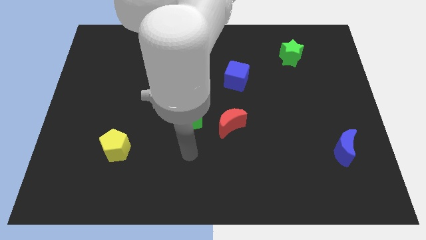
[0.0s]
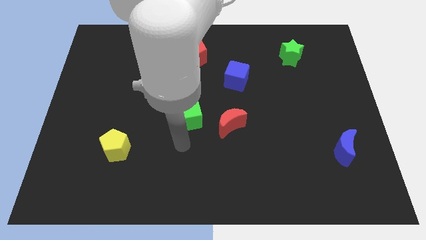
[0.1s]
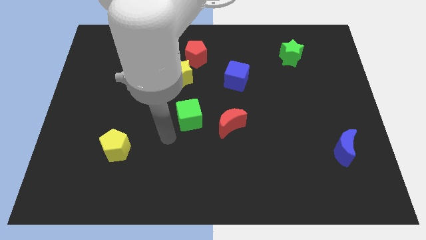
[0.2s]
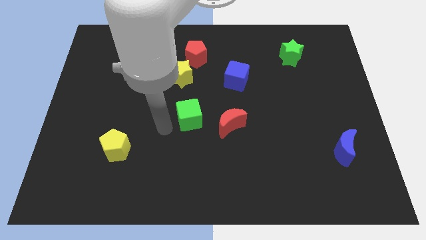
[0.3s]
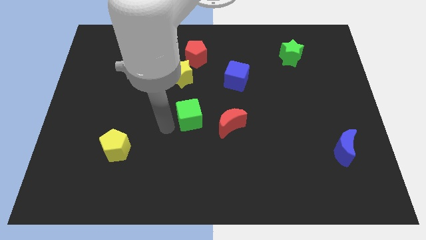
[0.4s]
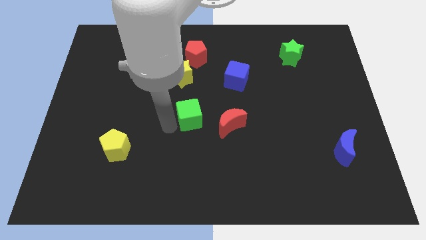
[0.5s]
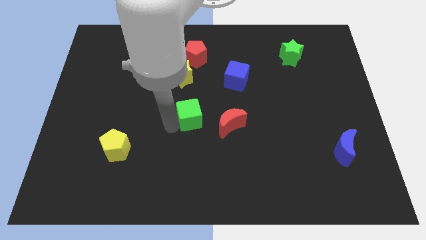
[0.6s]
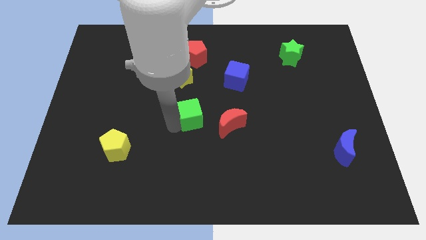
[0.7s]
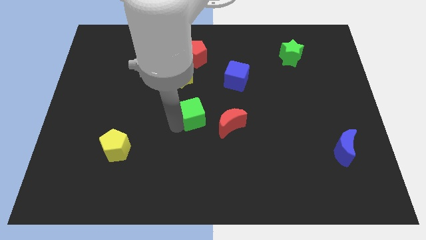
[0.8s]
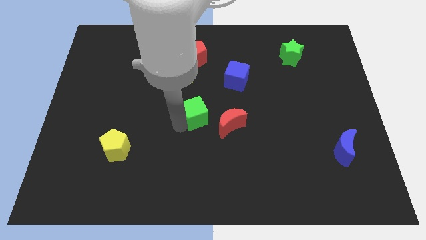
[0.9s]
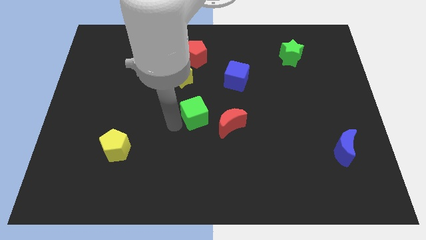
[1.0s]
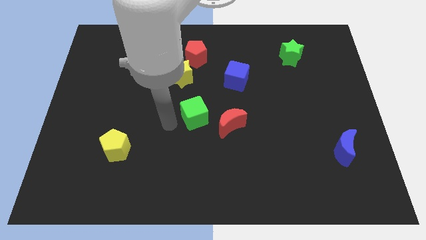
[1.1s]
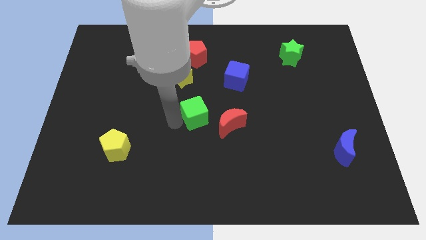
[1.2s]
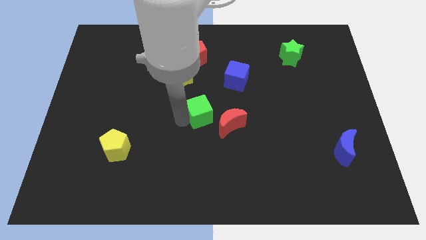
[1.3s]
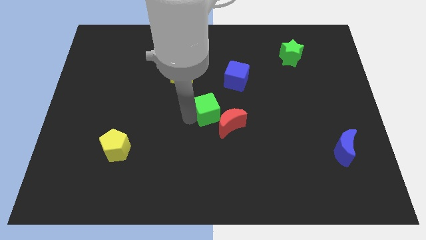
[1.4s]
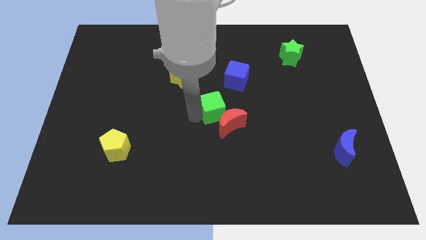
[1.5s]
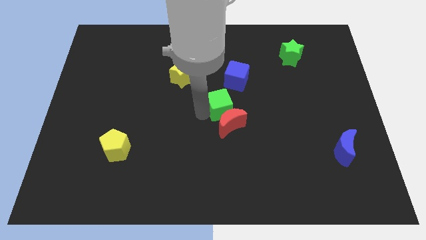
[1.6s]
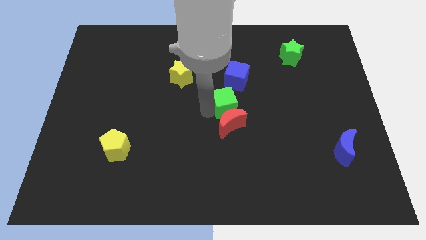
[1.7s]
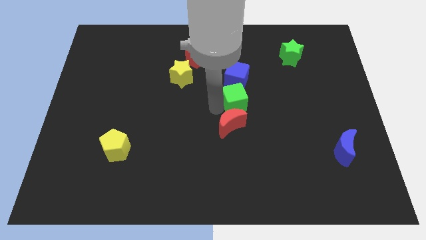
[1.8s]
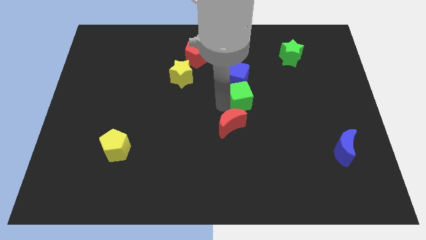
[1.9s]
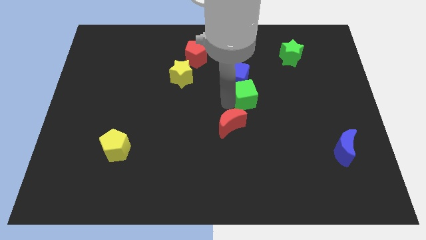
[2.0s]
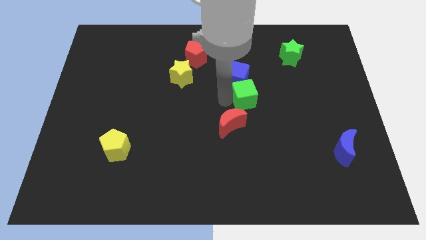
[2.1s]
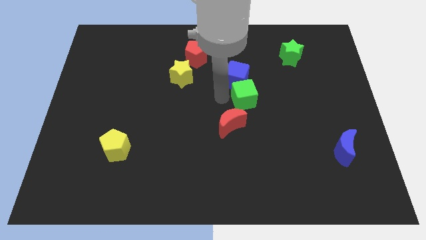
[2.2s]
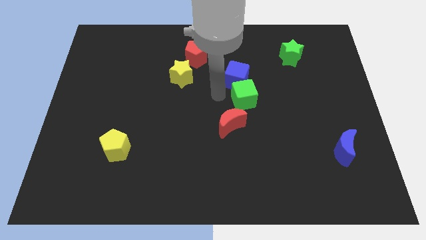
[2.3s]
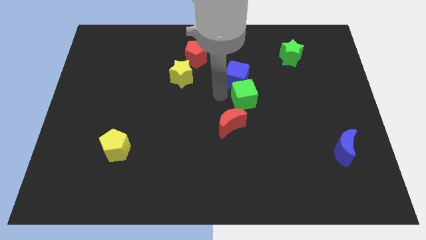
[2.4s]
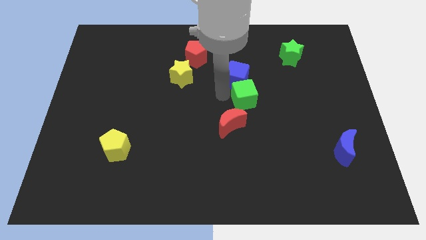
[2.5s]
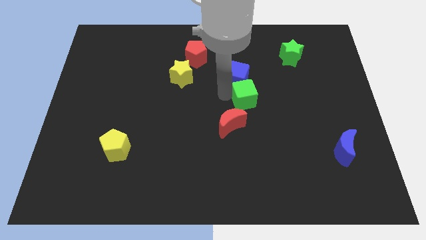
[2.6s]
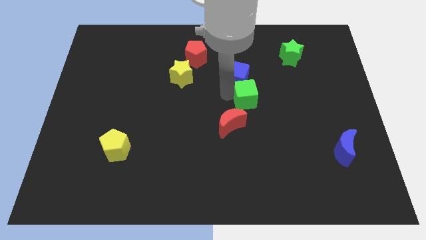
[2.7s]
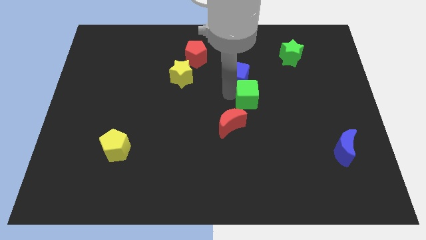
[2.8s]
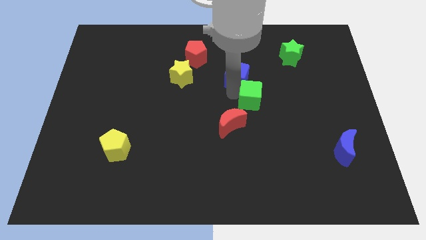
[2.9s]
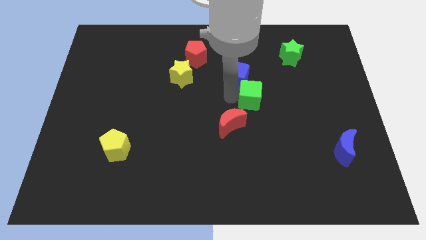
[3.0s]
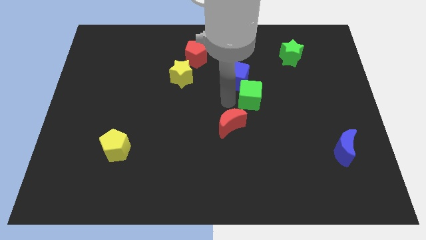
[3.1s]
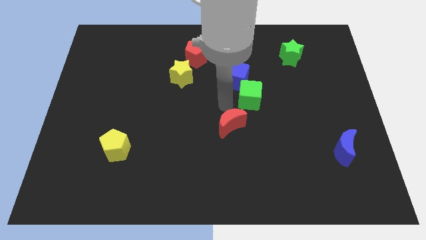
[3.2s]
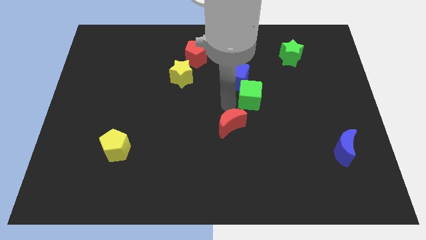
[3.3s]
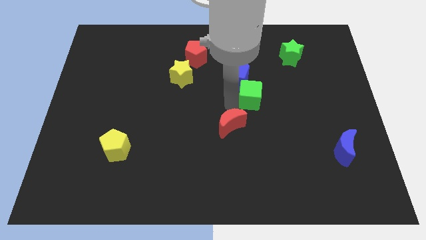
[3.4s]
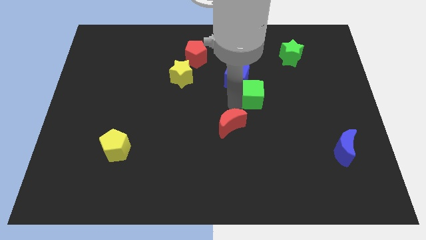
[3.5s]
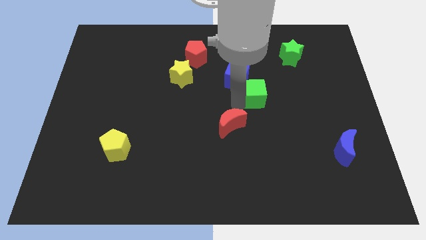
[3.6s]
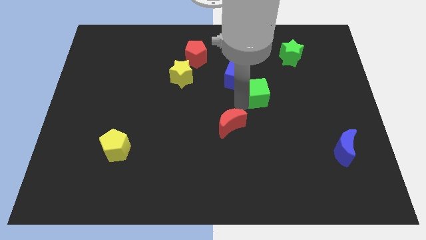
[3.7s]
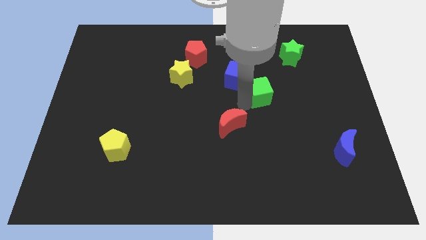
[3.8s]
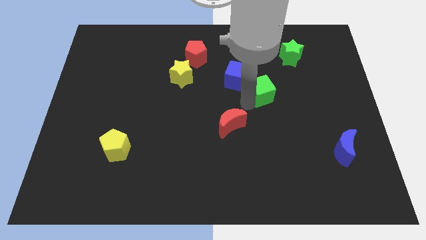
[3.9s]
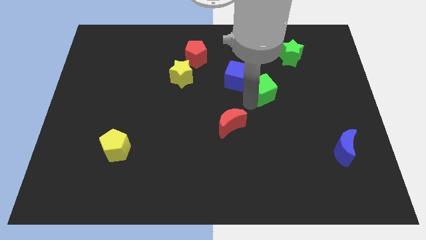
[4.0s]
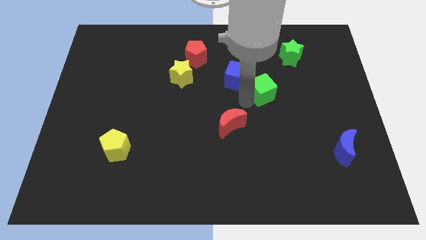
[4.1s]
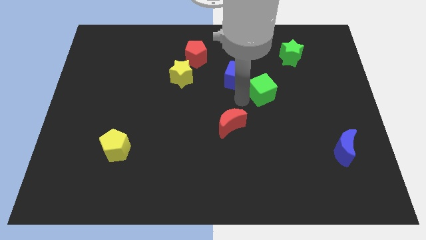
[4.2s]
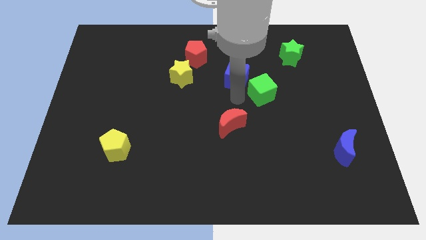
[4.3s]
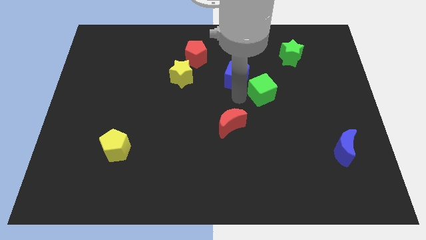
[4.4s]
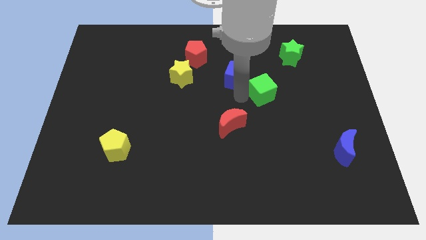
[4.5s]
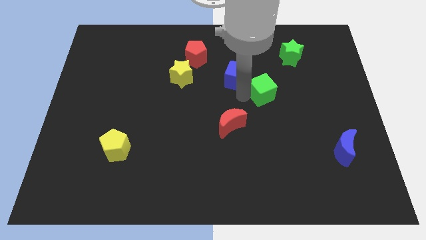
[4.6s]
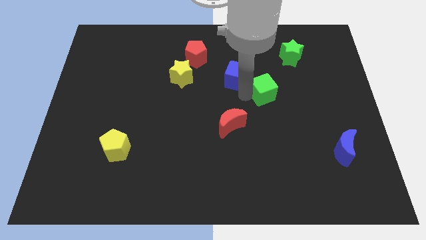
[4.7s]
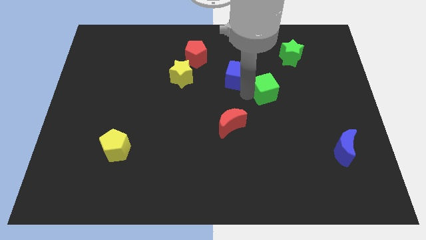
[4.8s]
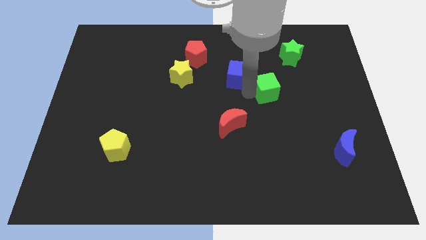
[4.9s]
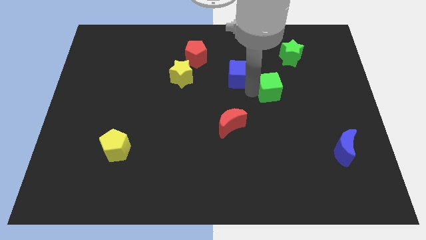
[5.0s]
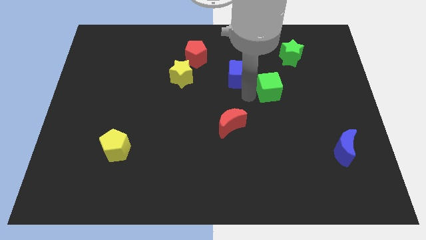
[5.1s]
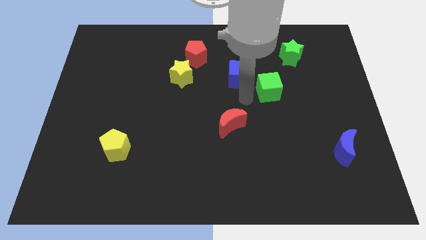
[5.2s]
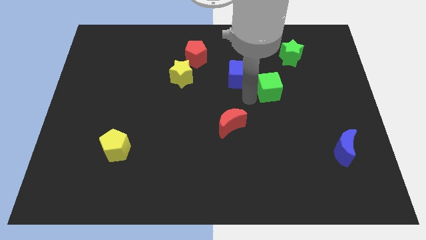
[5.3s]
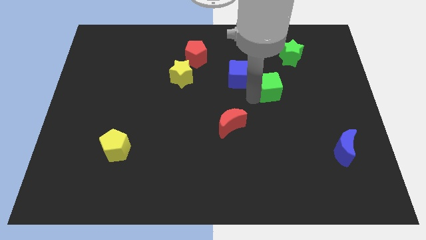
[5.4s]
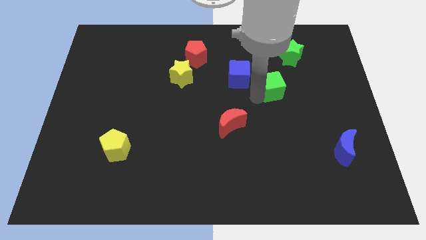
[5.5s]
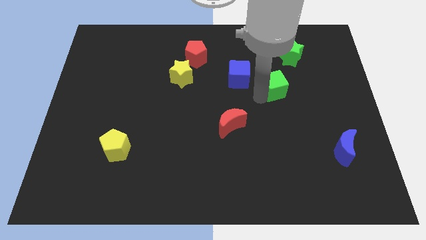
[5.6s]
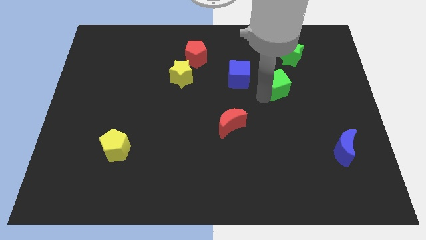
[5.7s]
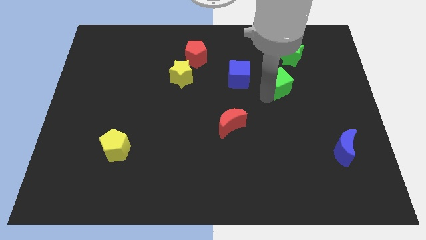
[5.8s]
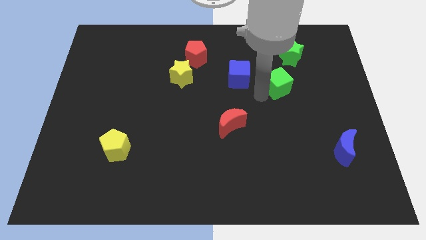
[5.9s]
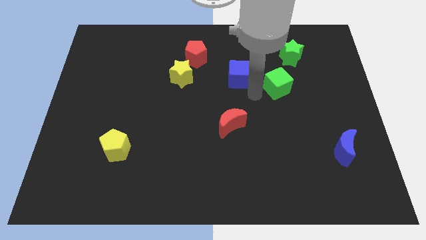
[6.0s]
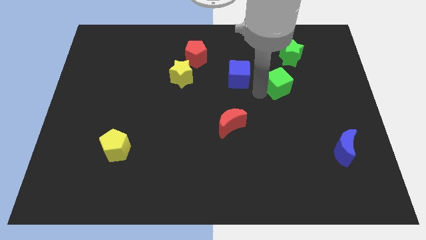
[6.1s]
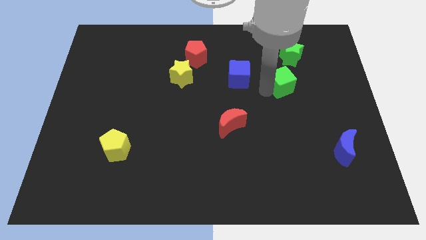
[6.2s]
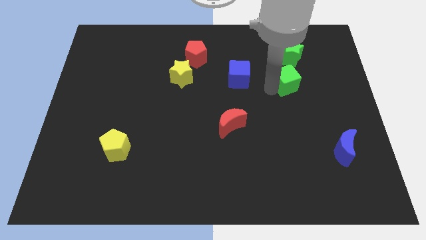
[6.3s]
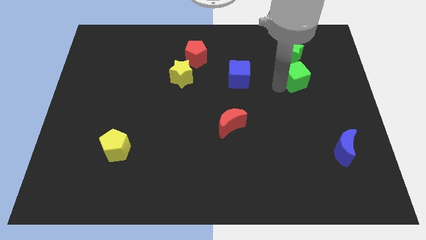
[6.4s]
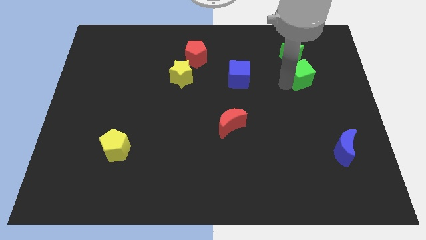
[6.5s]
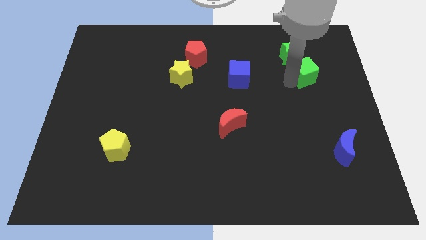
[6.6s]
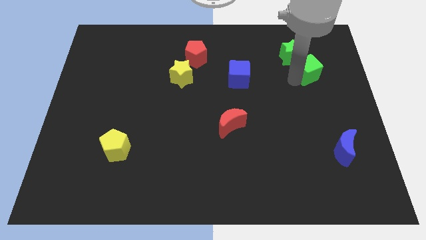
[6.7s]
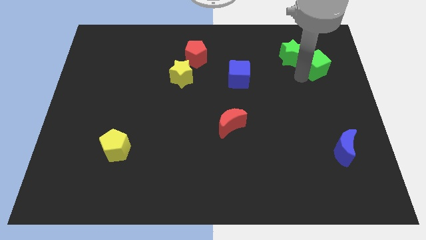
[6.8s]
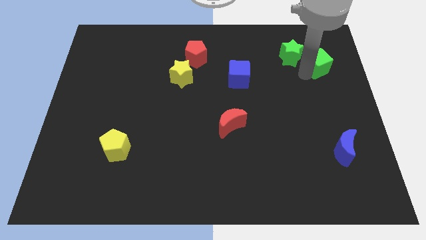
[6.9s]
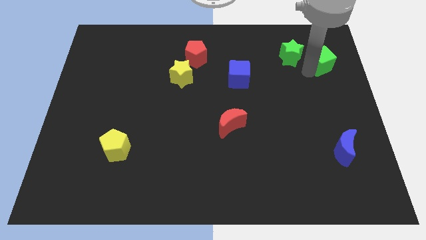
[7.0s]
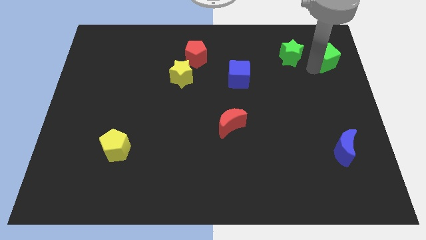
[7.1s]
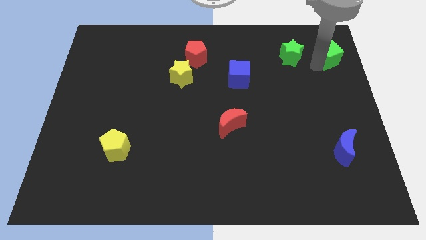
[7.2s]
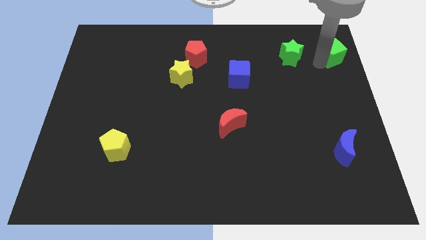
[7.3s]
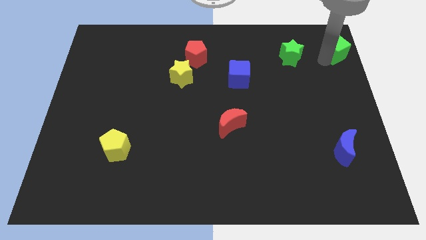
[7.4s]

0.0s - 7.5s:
slide the green cube to the top right
